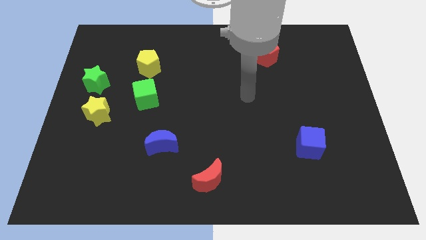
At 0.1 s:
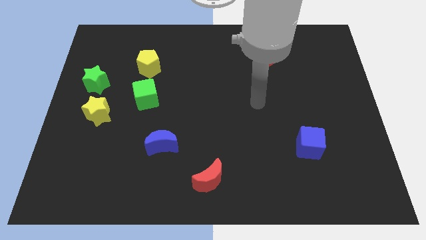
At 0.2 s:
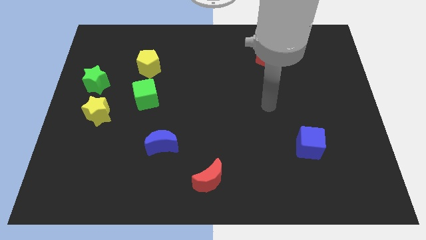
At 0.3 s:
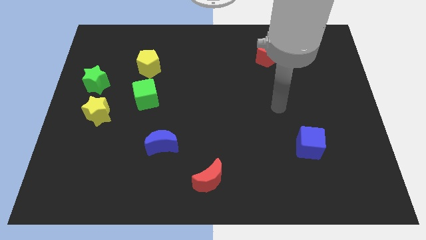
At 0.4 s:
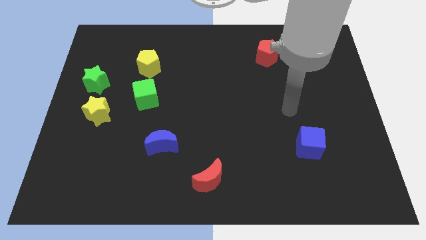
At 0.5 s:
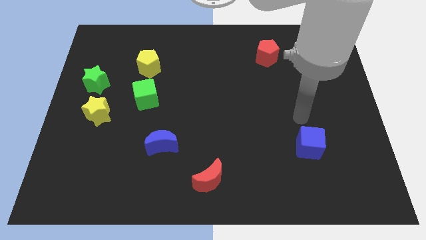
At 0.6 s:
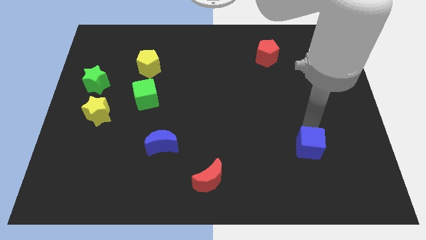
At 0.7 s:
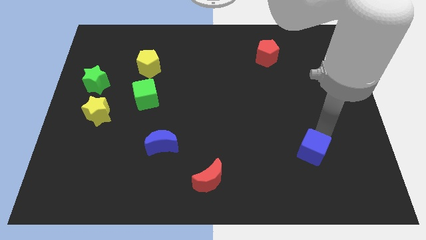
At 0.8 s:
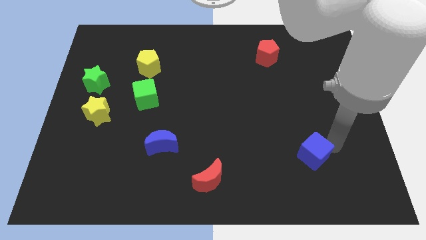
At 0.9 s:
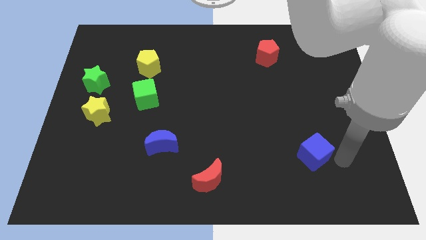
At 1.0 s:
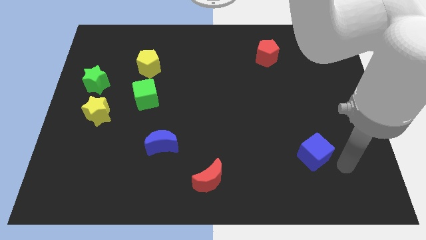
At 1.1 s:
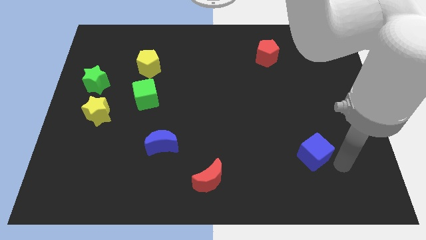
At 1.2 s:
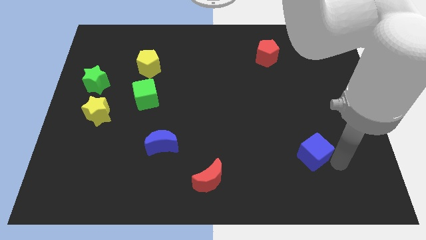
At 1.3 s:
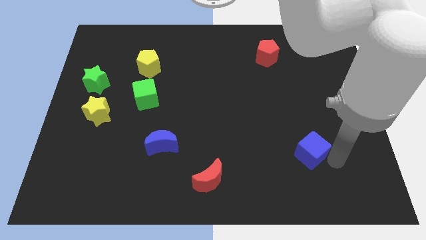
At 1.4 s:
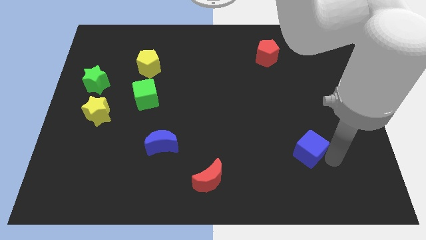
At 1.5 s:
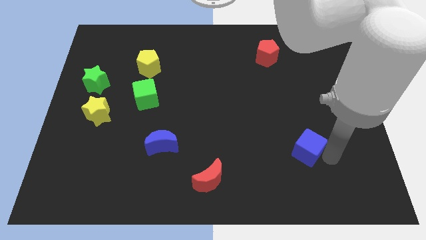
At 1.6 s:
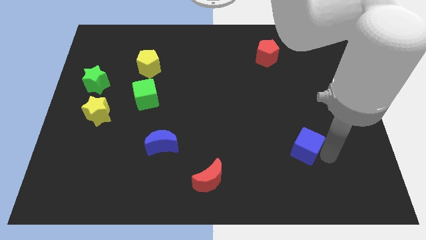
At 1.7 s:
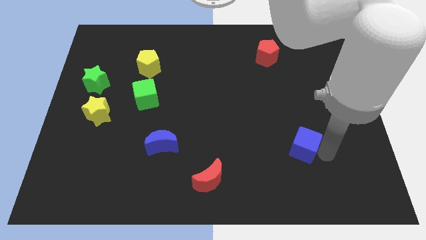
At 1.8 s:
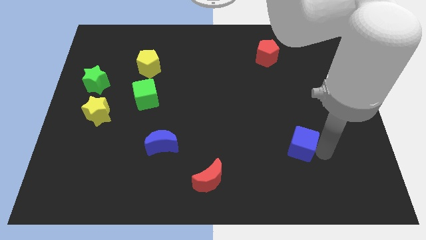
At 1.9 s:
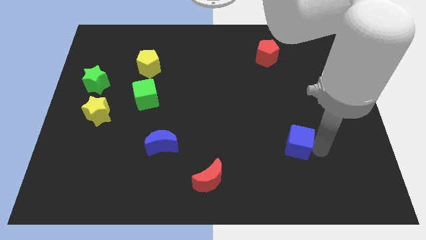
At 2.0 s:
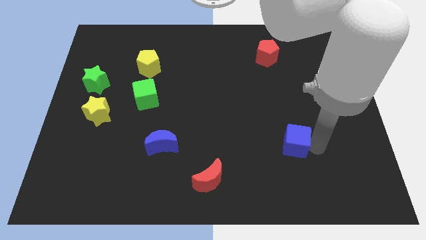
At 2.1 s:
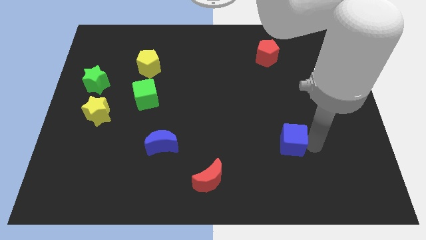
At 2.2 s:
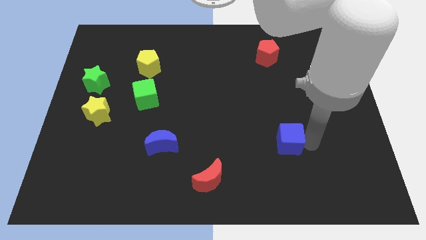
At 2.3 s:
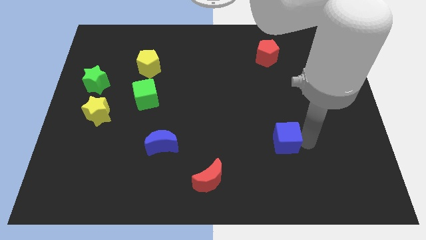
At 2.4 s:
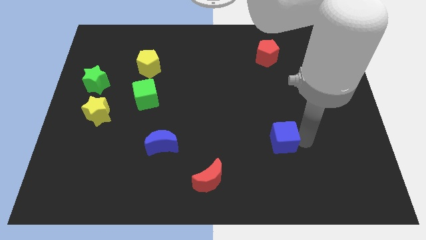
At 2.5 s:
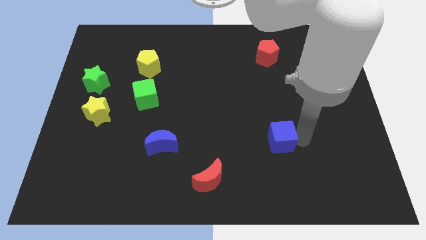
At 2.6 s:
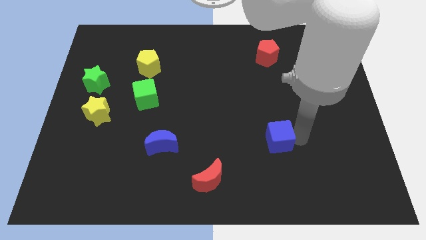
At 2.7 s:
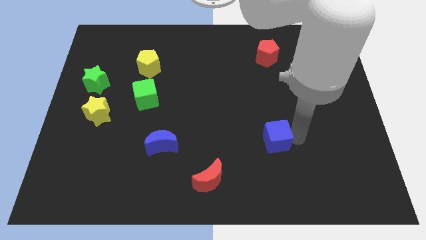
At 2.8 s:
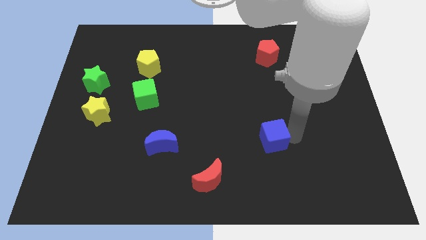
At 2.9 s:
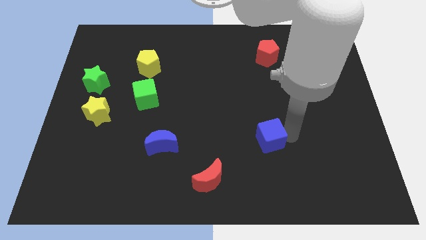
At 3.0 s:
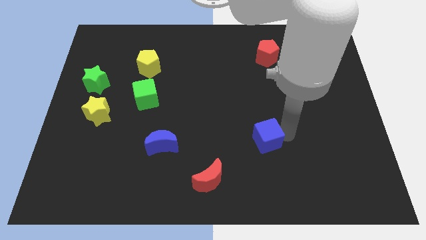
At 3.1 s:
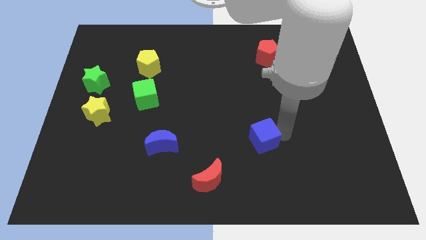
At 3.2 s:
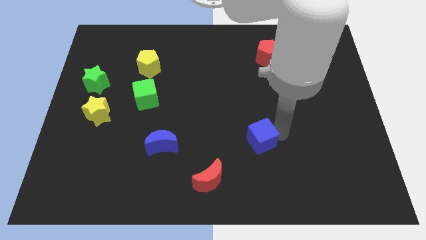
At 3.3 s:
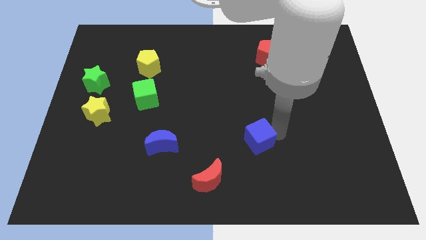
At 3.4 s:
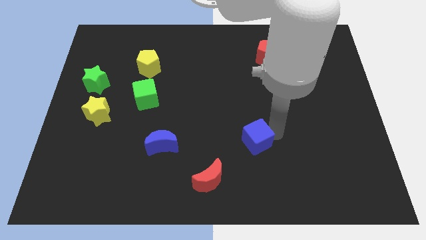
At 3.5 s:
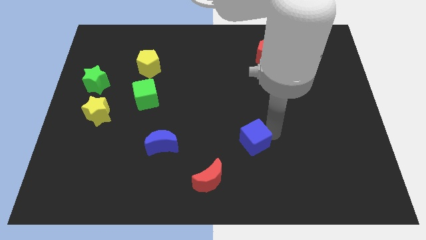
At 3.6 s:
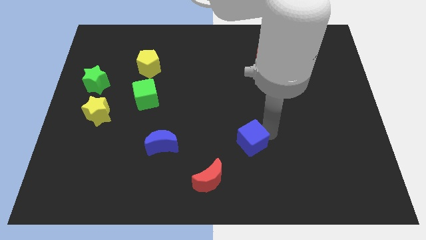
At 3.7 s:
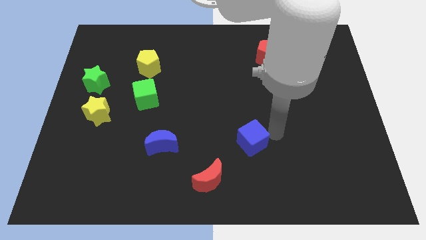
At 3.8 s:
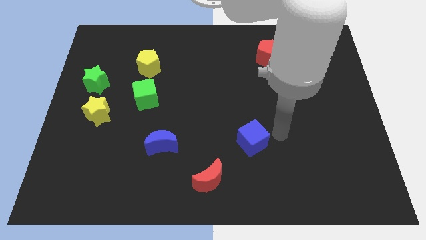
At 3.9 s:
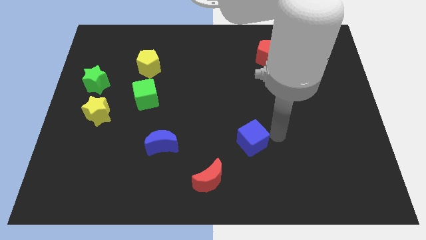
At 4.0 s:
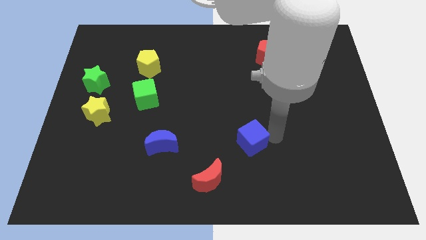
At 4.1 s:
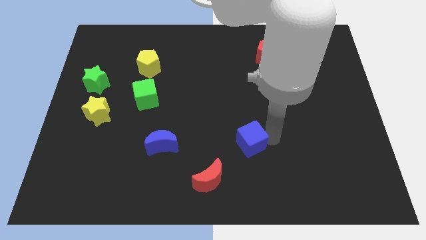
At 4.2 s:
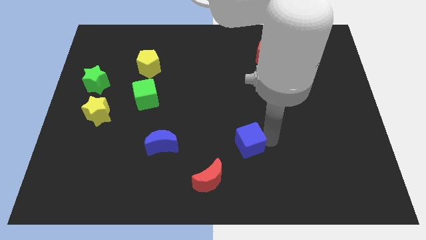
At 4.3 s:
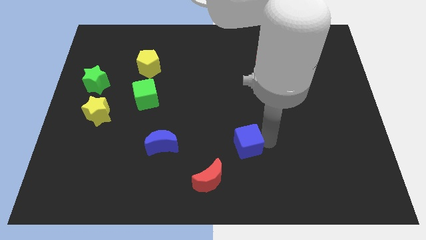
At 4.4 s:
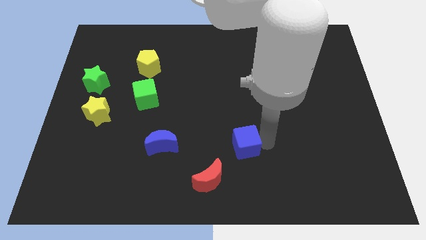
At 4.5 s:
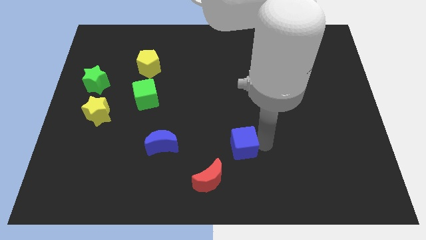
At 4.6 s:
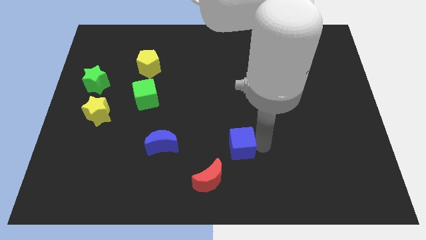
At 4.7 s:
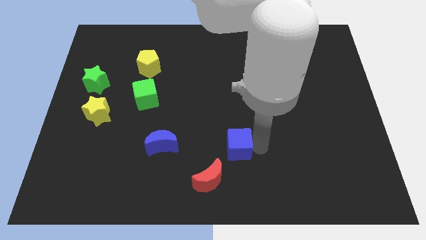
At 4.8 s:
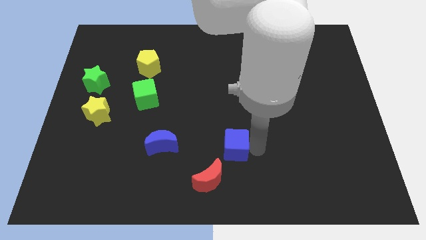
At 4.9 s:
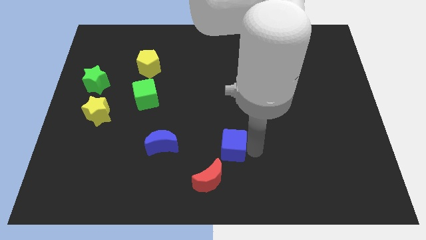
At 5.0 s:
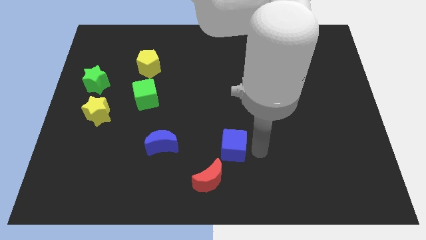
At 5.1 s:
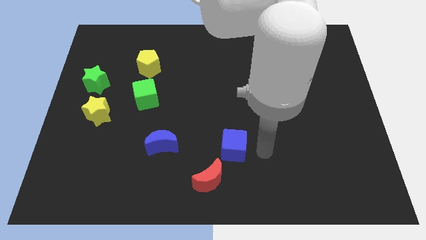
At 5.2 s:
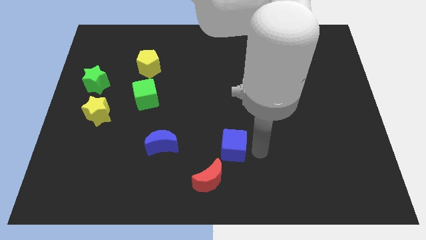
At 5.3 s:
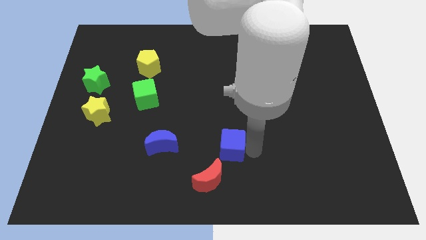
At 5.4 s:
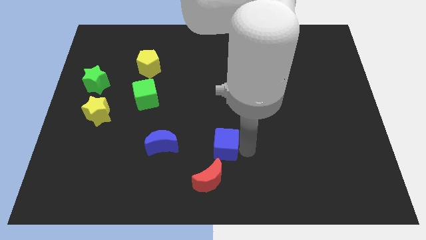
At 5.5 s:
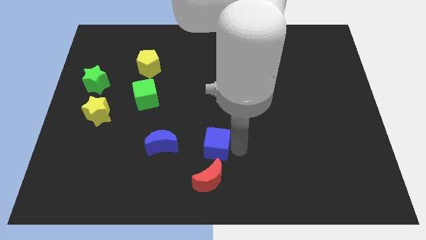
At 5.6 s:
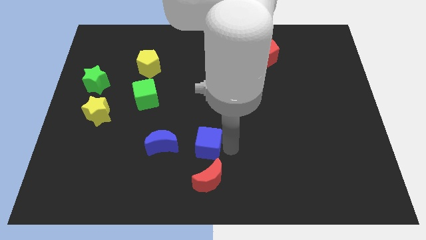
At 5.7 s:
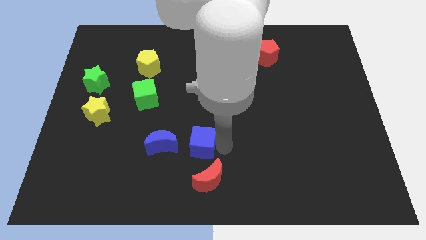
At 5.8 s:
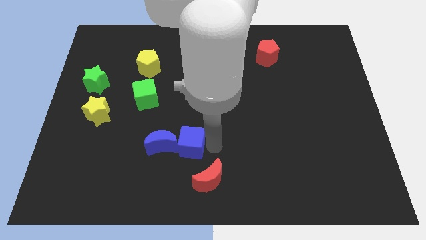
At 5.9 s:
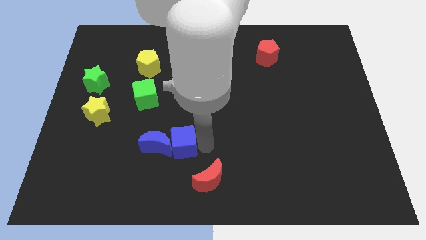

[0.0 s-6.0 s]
move the blue cube to the blue moon
